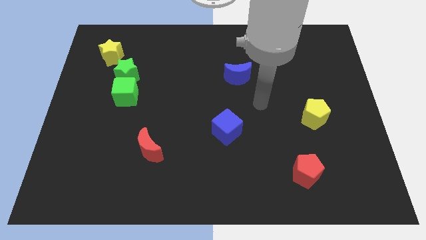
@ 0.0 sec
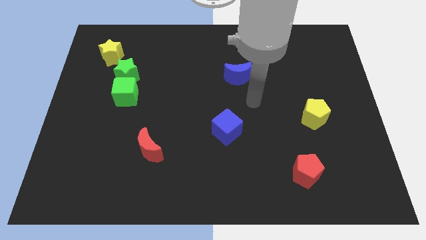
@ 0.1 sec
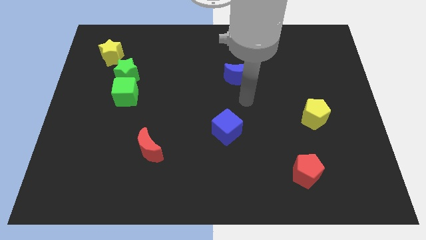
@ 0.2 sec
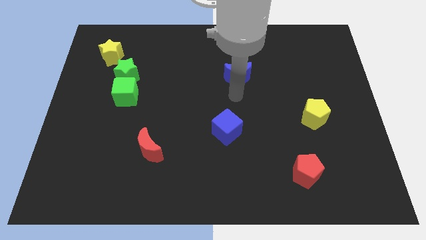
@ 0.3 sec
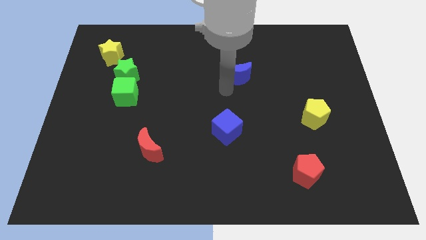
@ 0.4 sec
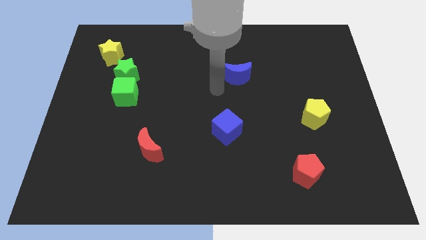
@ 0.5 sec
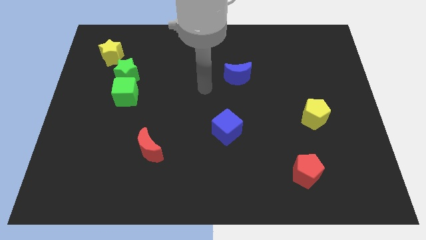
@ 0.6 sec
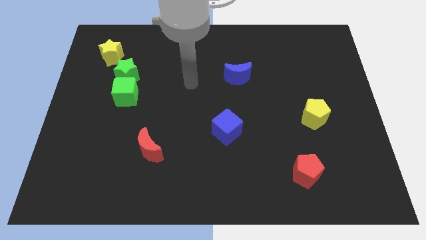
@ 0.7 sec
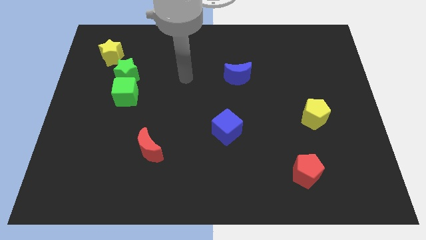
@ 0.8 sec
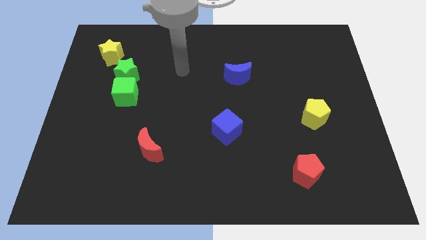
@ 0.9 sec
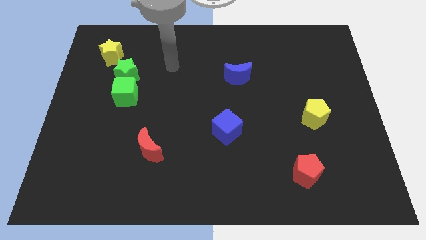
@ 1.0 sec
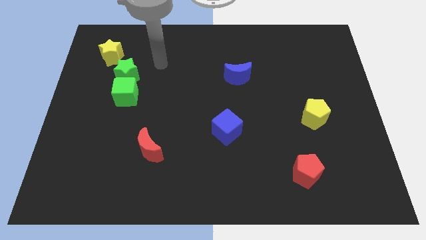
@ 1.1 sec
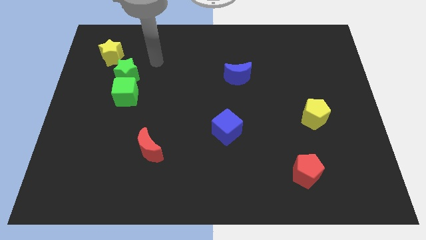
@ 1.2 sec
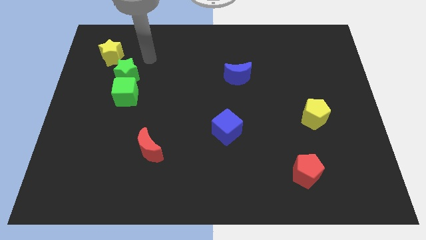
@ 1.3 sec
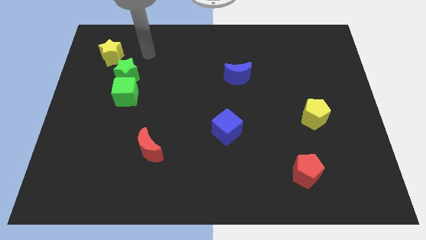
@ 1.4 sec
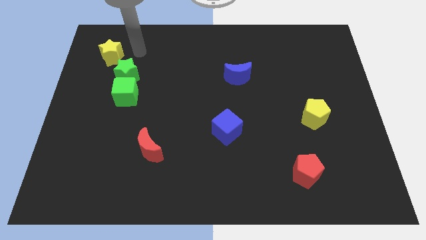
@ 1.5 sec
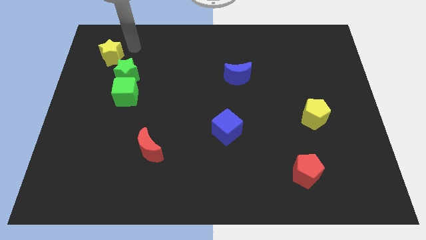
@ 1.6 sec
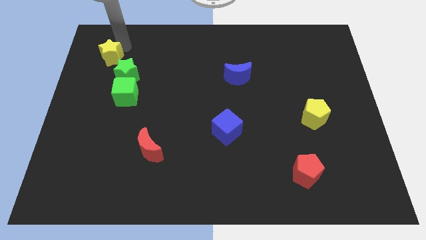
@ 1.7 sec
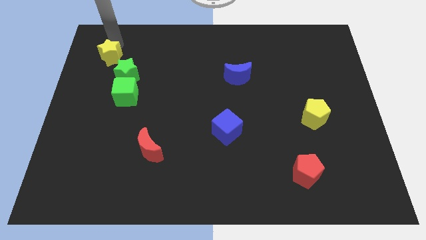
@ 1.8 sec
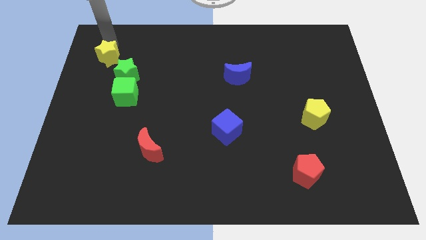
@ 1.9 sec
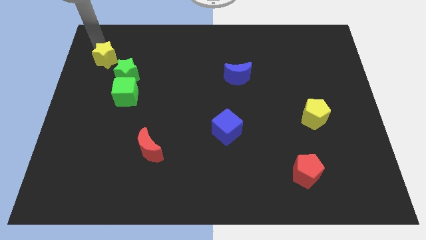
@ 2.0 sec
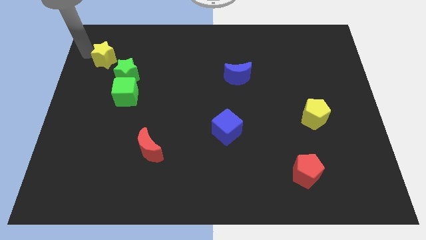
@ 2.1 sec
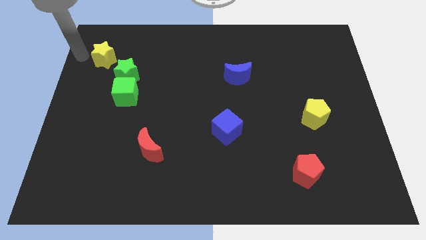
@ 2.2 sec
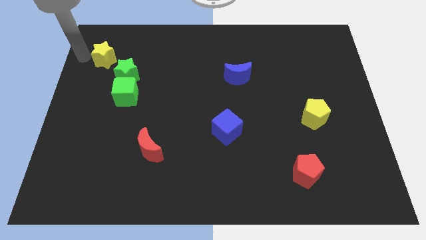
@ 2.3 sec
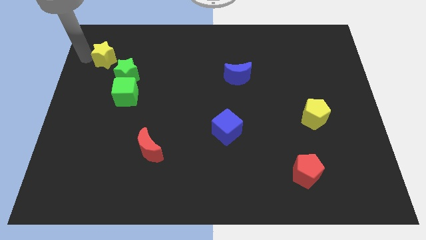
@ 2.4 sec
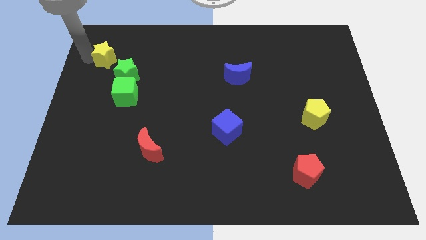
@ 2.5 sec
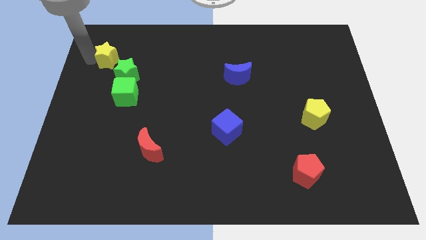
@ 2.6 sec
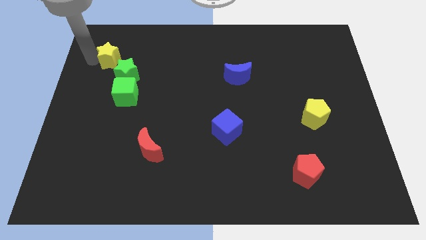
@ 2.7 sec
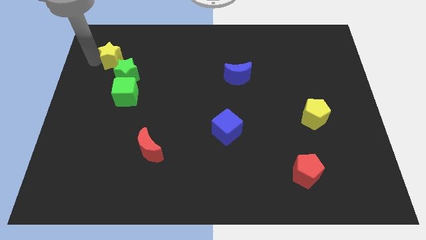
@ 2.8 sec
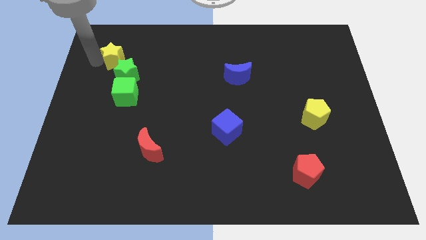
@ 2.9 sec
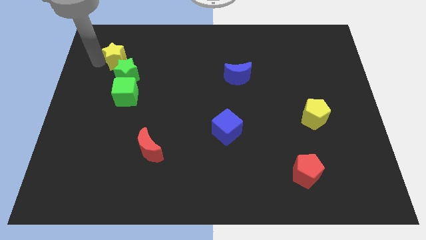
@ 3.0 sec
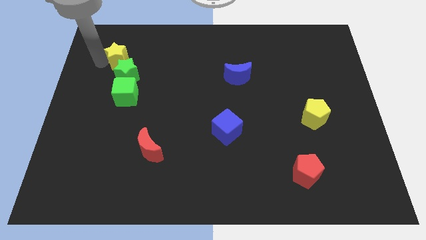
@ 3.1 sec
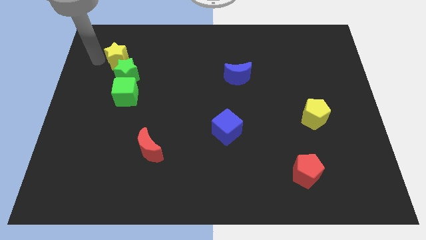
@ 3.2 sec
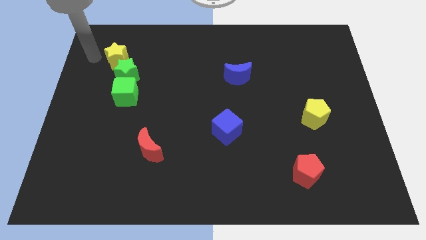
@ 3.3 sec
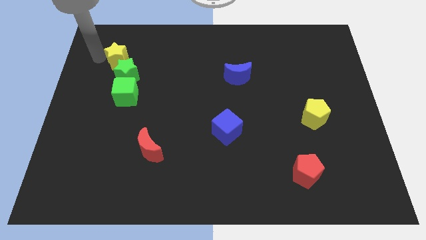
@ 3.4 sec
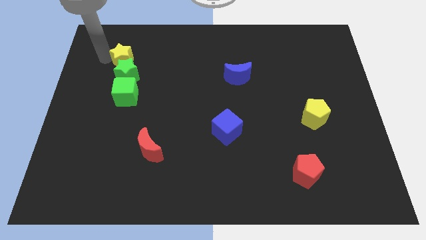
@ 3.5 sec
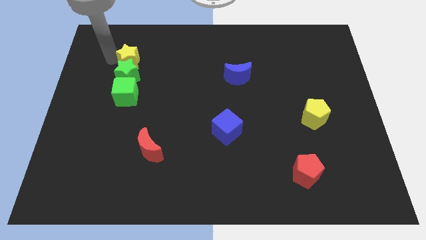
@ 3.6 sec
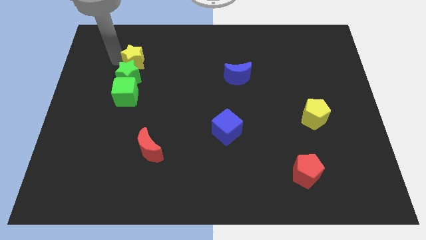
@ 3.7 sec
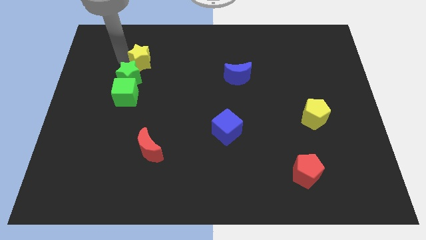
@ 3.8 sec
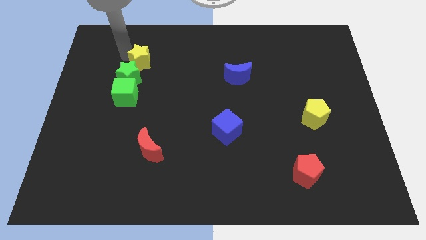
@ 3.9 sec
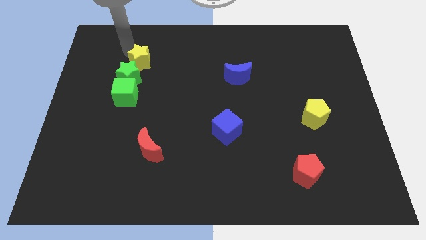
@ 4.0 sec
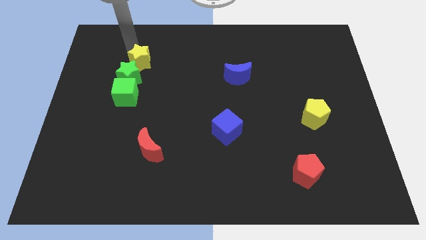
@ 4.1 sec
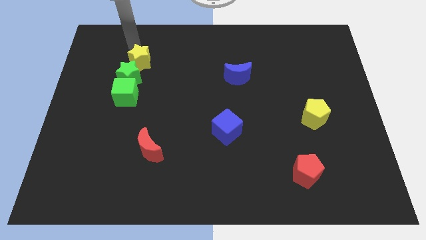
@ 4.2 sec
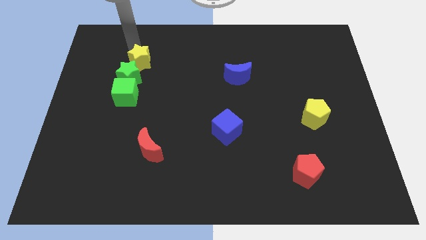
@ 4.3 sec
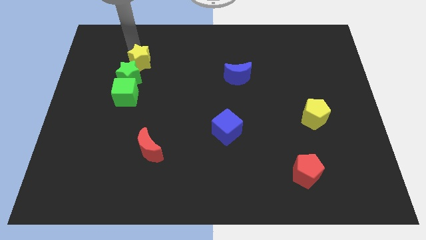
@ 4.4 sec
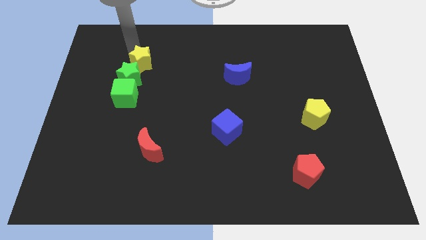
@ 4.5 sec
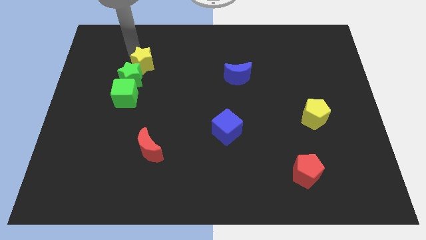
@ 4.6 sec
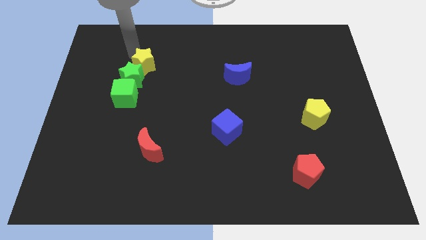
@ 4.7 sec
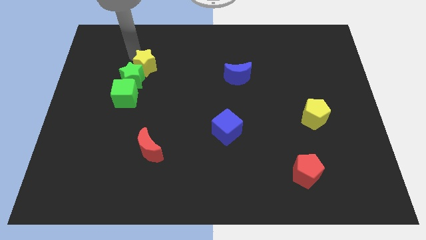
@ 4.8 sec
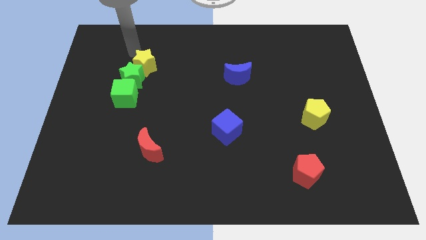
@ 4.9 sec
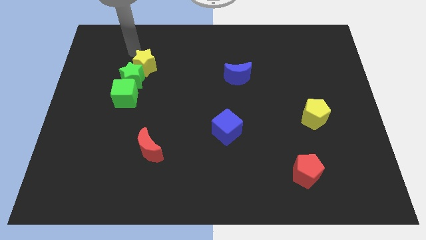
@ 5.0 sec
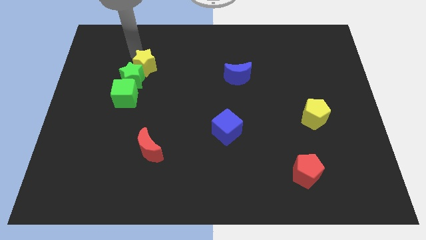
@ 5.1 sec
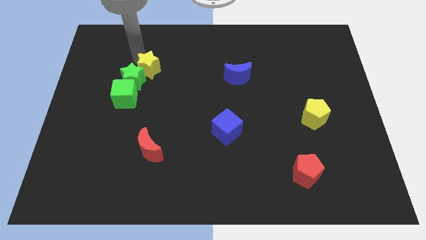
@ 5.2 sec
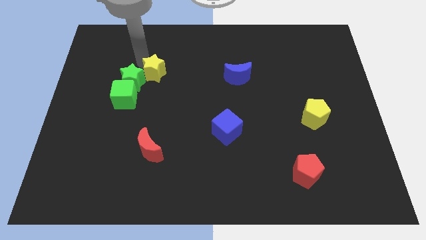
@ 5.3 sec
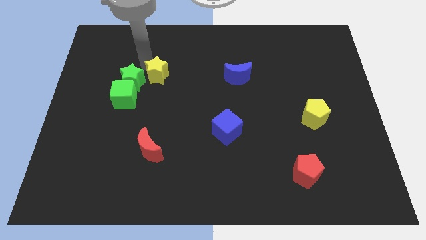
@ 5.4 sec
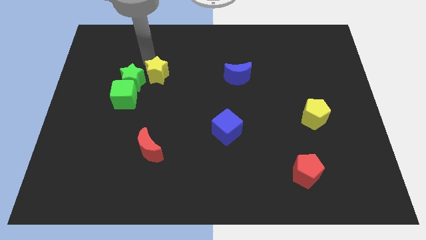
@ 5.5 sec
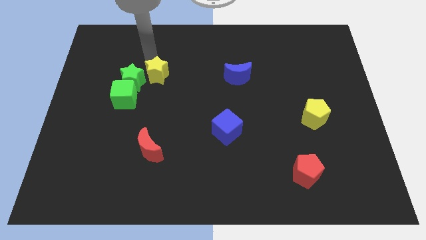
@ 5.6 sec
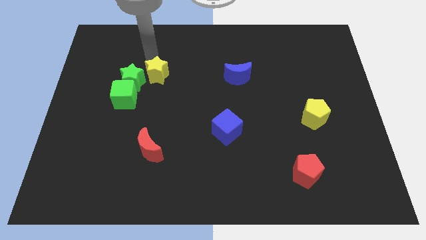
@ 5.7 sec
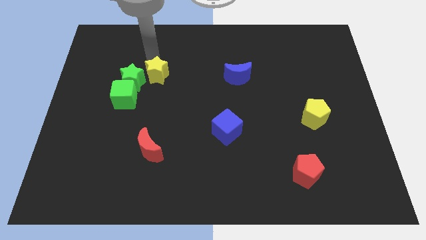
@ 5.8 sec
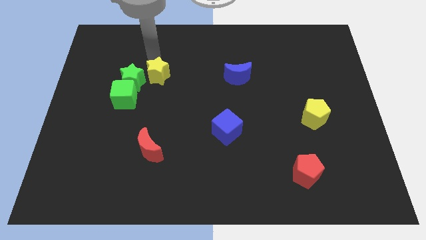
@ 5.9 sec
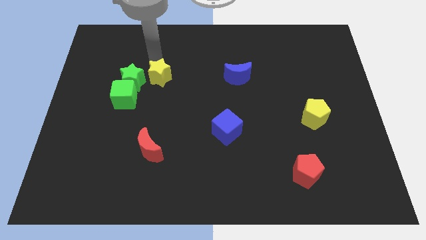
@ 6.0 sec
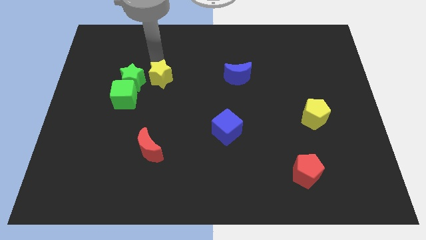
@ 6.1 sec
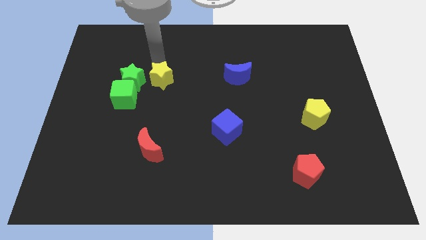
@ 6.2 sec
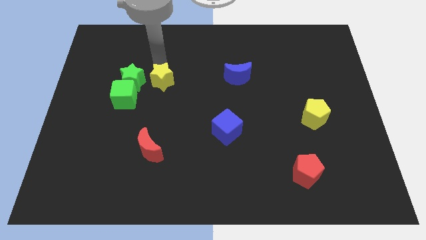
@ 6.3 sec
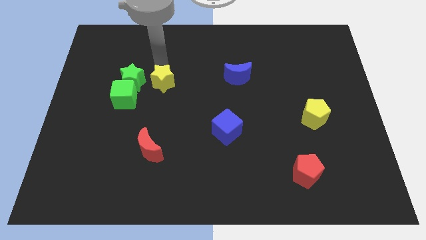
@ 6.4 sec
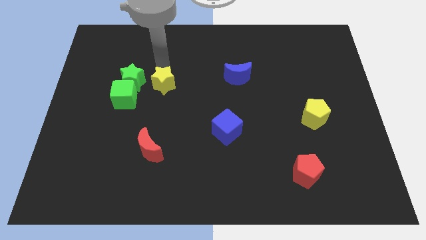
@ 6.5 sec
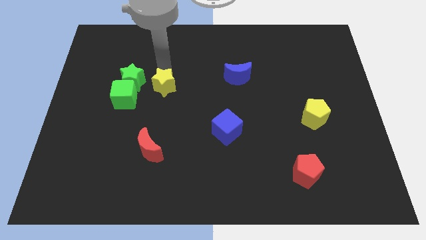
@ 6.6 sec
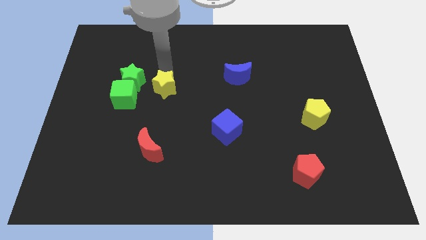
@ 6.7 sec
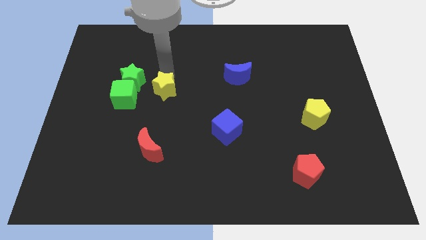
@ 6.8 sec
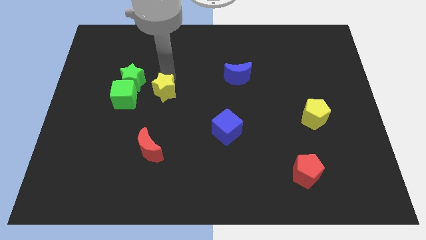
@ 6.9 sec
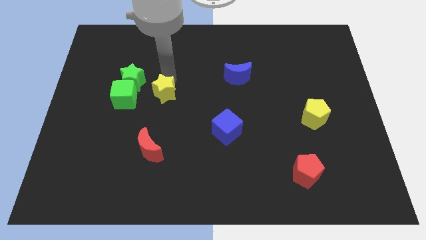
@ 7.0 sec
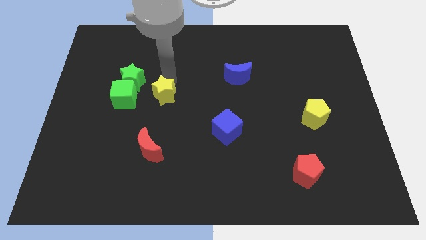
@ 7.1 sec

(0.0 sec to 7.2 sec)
move the yellow star down and then right

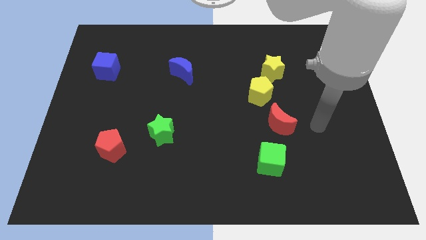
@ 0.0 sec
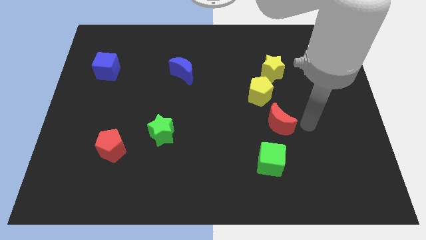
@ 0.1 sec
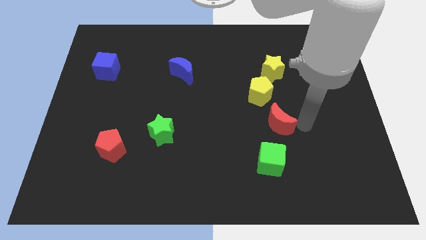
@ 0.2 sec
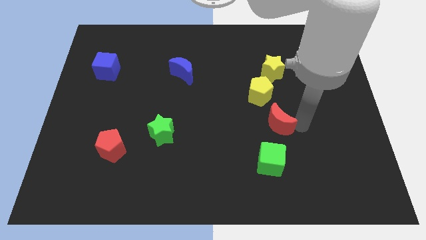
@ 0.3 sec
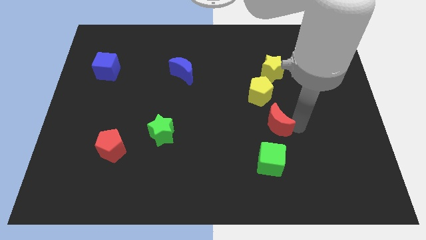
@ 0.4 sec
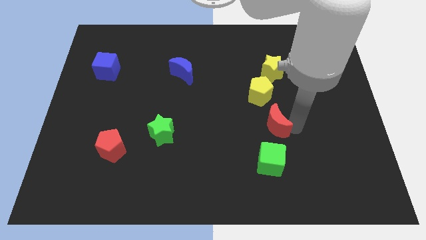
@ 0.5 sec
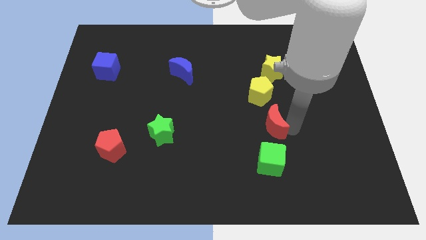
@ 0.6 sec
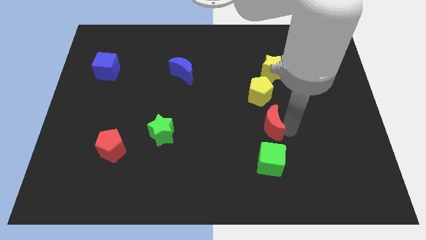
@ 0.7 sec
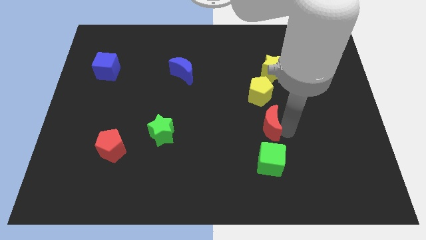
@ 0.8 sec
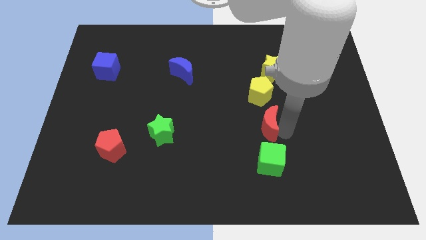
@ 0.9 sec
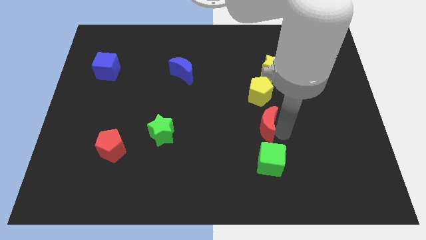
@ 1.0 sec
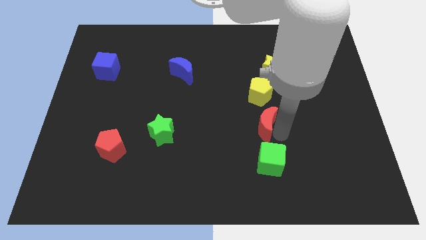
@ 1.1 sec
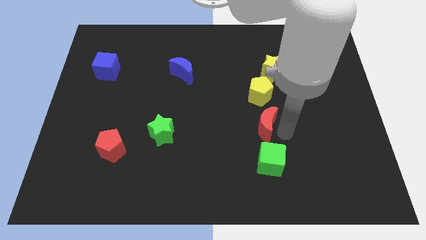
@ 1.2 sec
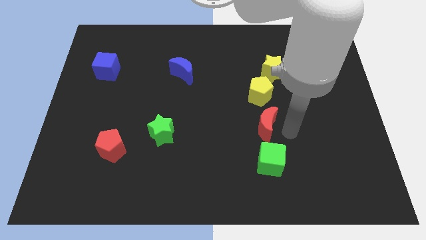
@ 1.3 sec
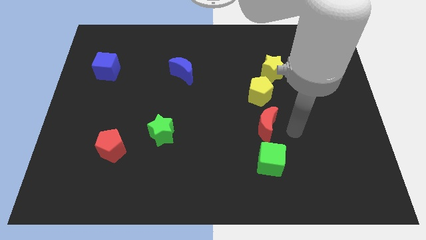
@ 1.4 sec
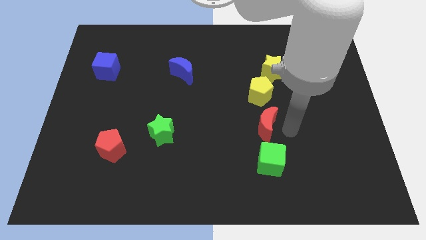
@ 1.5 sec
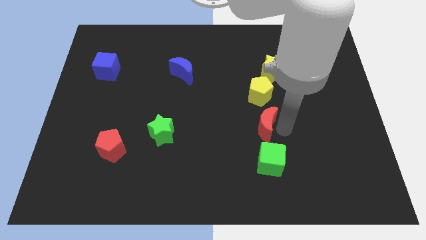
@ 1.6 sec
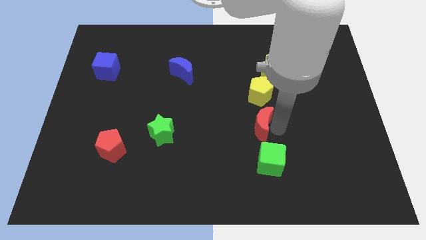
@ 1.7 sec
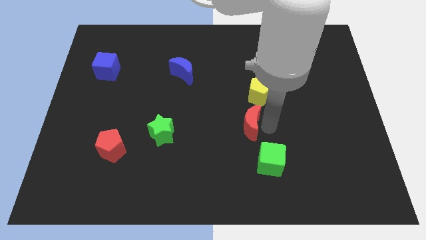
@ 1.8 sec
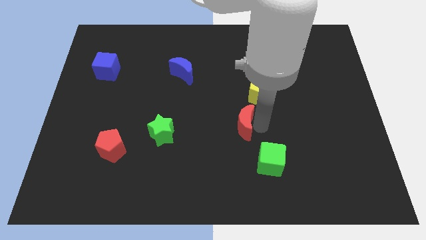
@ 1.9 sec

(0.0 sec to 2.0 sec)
slightly push the red moon to the left
